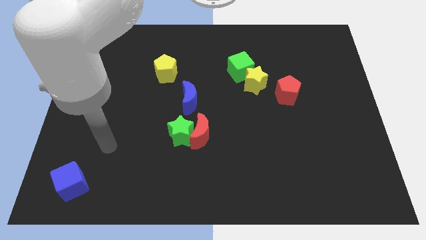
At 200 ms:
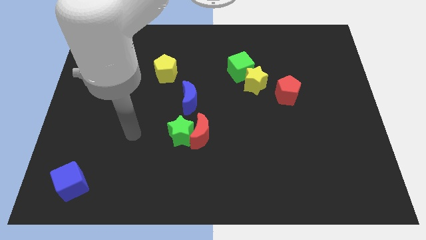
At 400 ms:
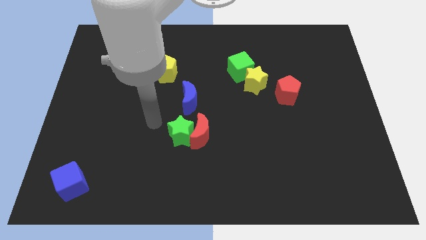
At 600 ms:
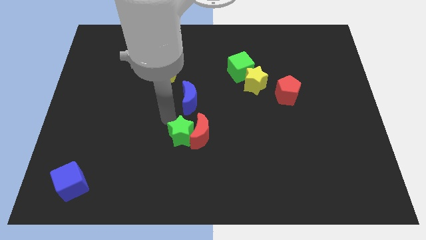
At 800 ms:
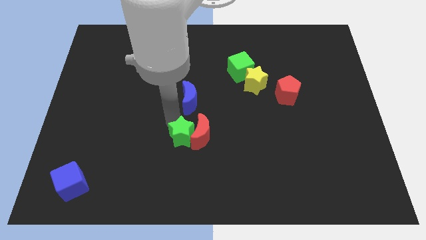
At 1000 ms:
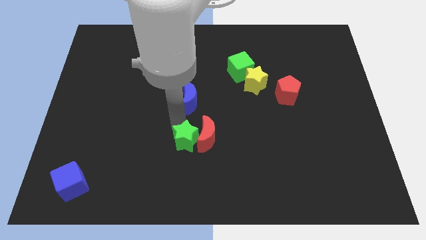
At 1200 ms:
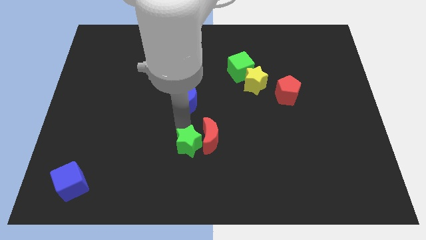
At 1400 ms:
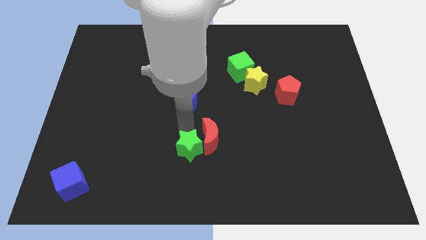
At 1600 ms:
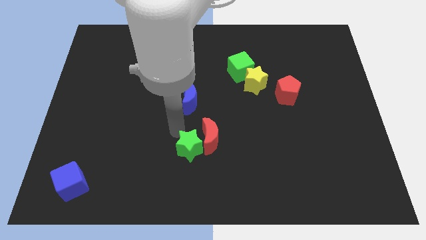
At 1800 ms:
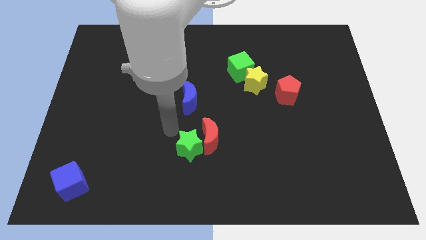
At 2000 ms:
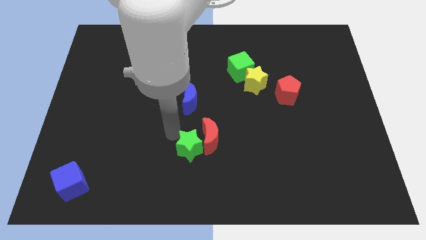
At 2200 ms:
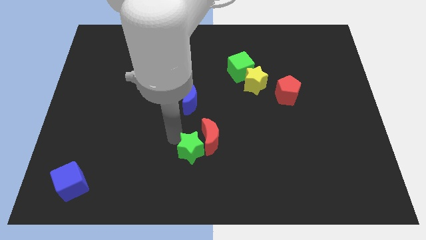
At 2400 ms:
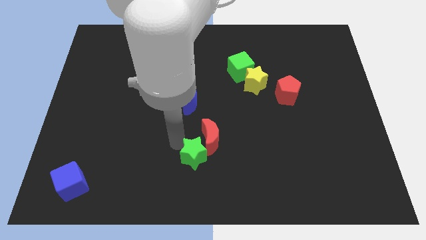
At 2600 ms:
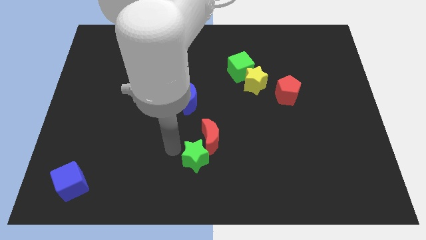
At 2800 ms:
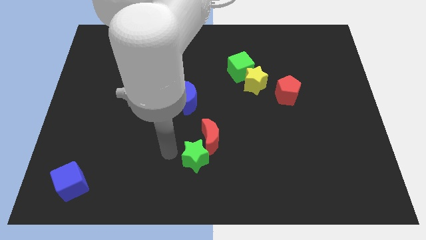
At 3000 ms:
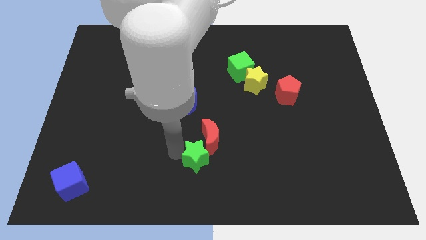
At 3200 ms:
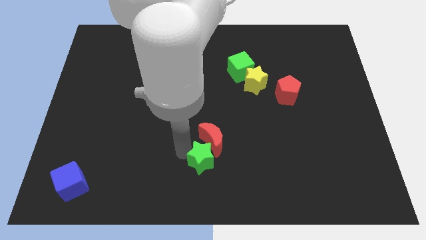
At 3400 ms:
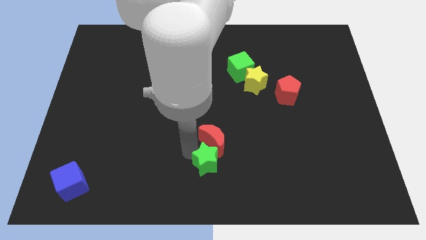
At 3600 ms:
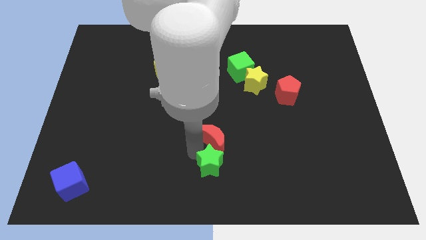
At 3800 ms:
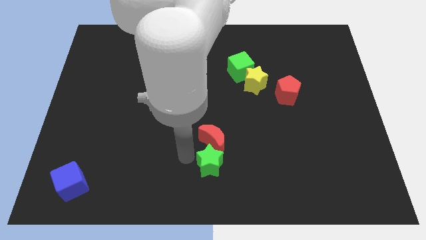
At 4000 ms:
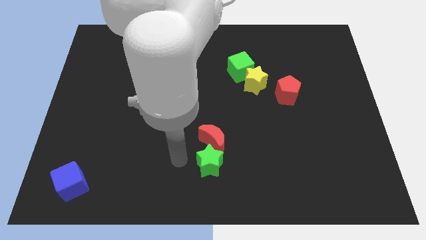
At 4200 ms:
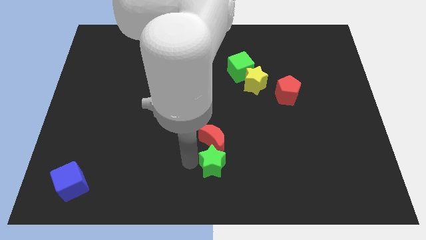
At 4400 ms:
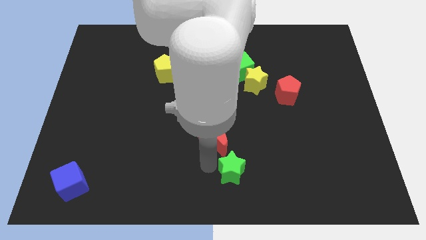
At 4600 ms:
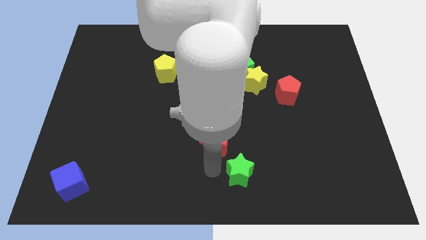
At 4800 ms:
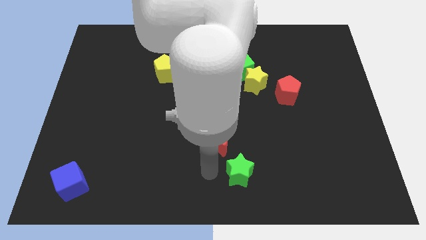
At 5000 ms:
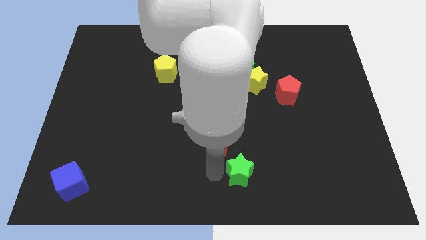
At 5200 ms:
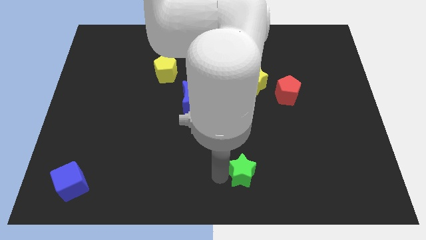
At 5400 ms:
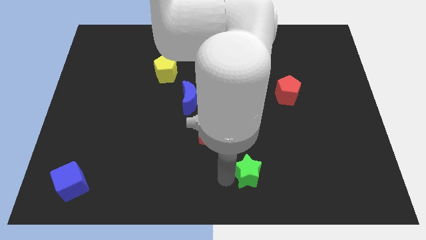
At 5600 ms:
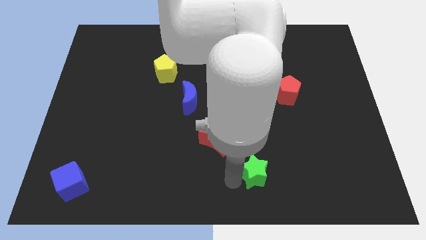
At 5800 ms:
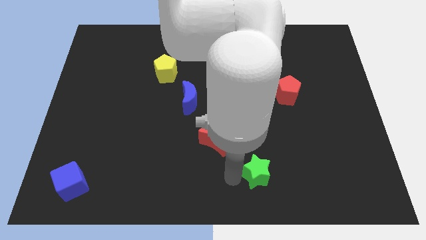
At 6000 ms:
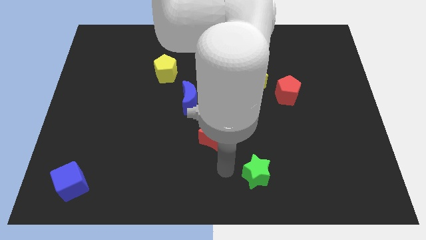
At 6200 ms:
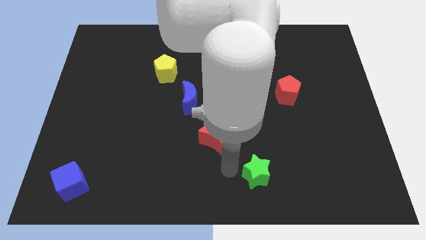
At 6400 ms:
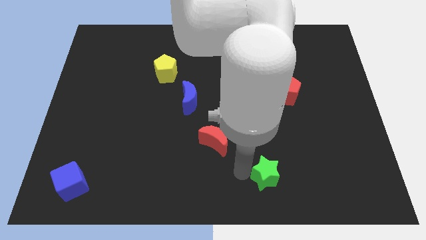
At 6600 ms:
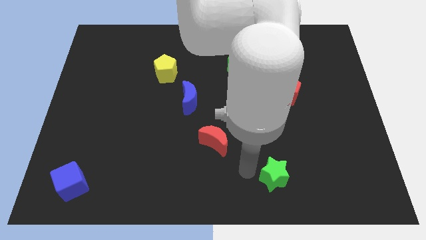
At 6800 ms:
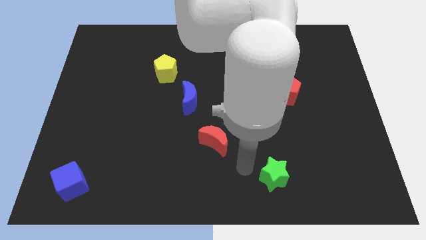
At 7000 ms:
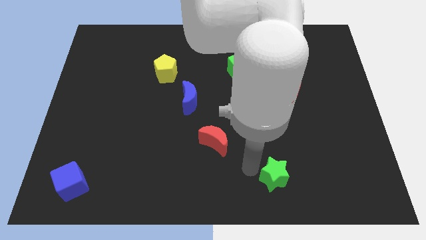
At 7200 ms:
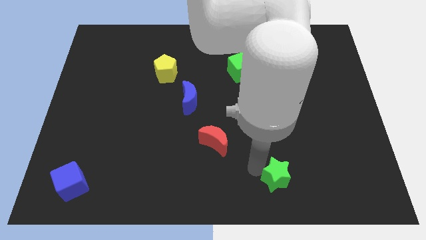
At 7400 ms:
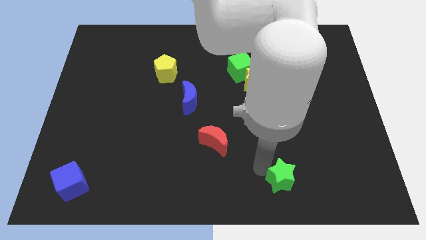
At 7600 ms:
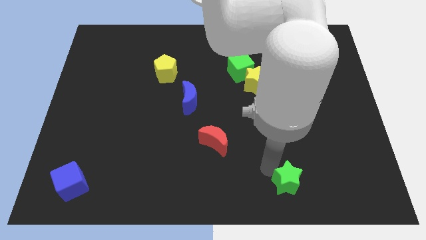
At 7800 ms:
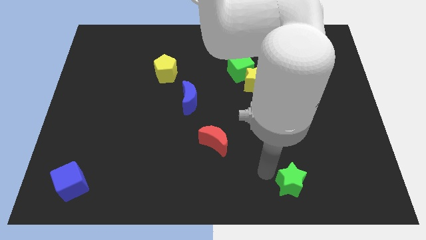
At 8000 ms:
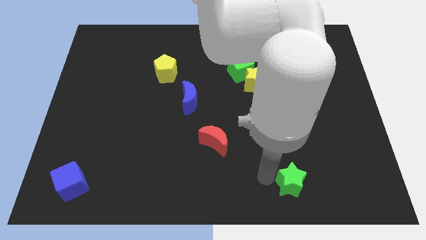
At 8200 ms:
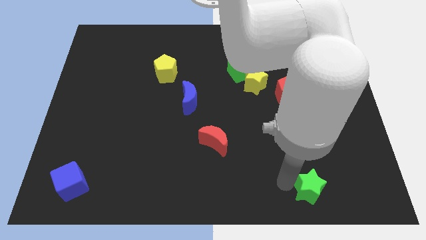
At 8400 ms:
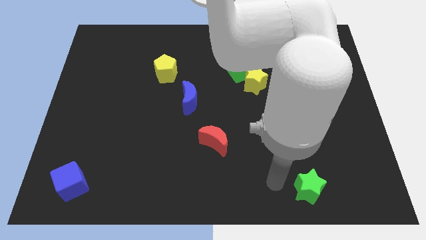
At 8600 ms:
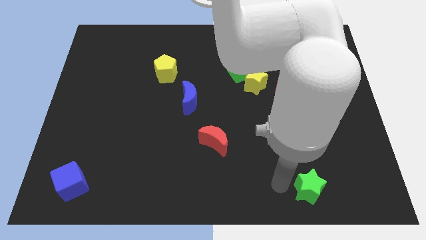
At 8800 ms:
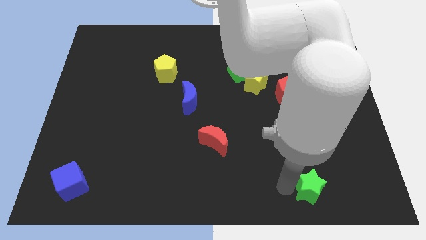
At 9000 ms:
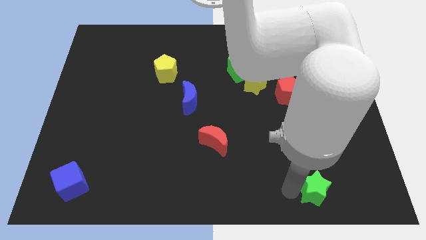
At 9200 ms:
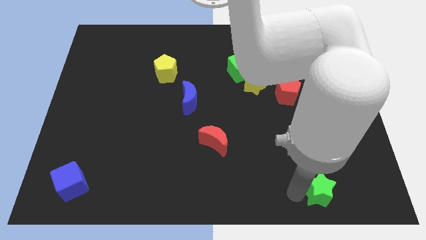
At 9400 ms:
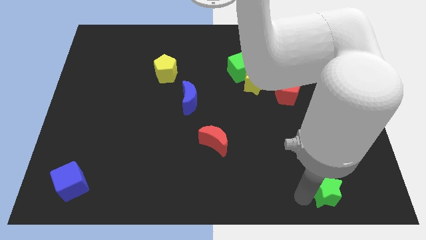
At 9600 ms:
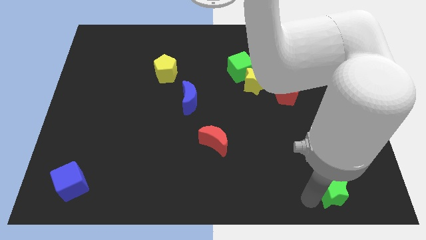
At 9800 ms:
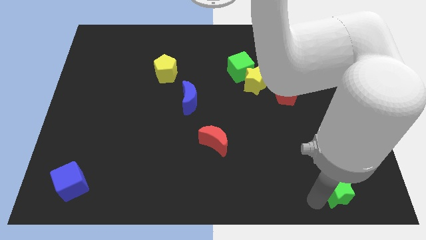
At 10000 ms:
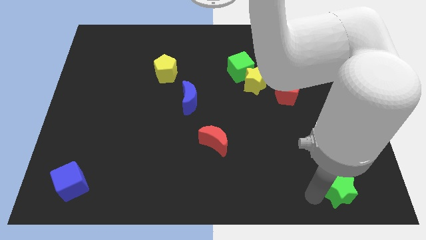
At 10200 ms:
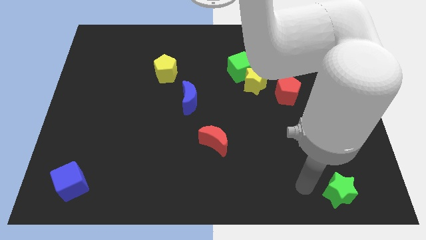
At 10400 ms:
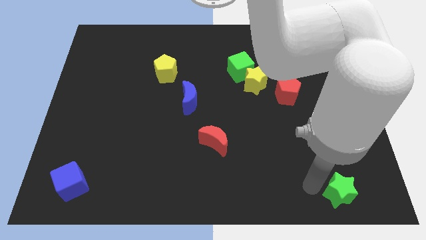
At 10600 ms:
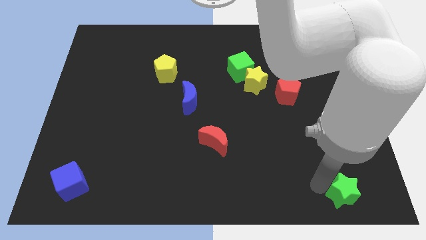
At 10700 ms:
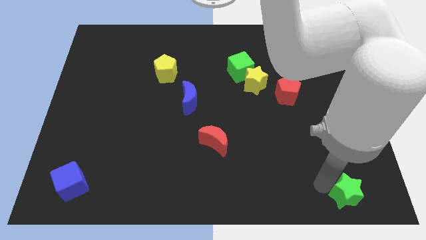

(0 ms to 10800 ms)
push the green star to the bottom right

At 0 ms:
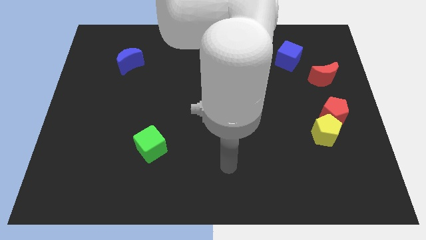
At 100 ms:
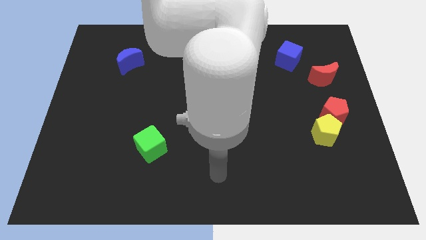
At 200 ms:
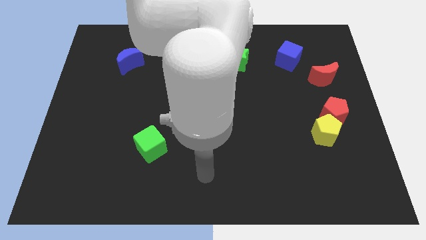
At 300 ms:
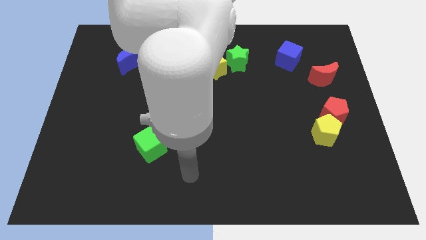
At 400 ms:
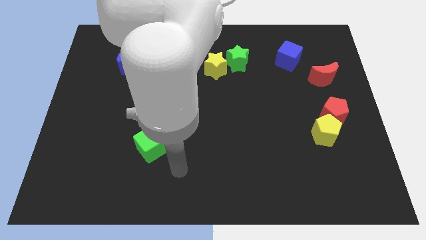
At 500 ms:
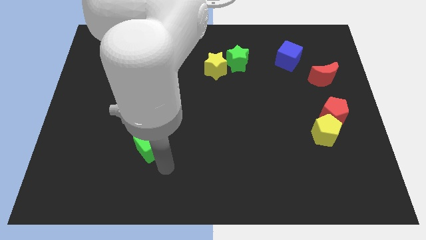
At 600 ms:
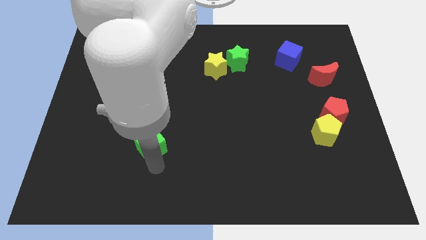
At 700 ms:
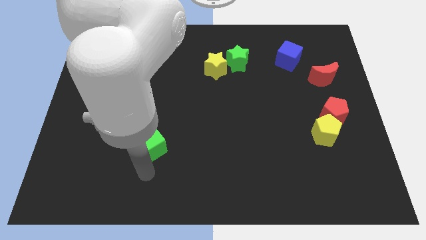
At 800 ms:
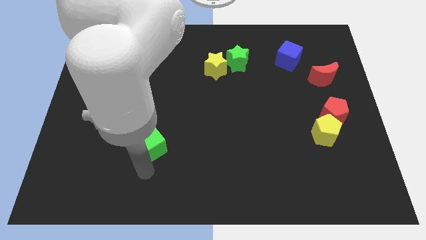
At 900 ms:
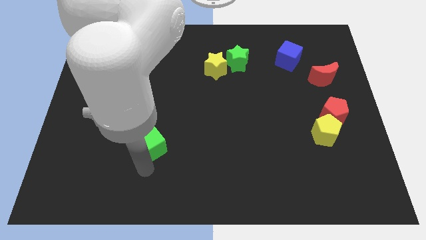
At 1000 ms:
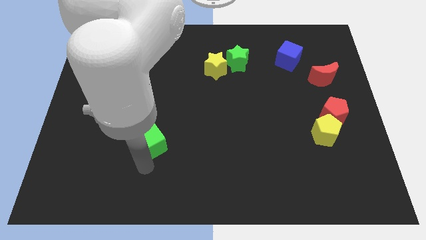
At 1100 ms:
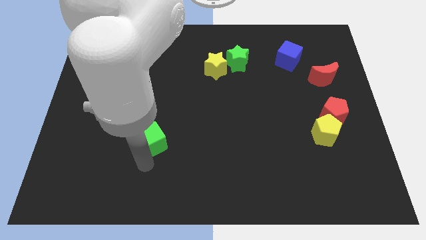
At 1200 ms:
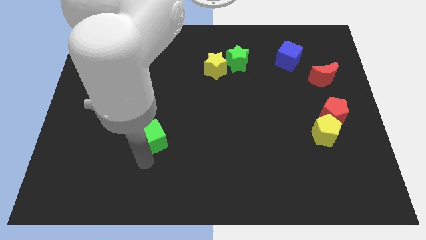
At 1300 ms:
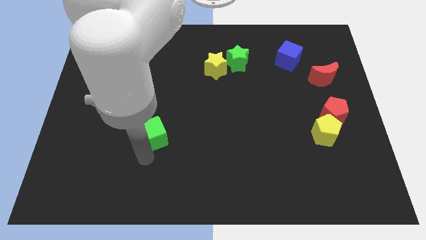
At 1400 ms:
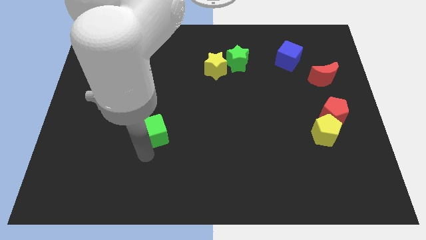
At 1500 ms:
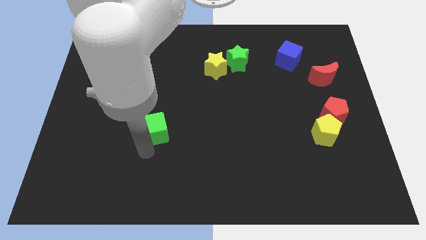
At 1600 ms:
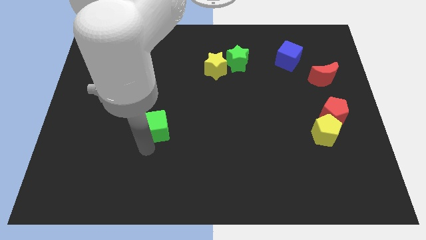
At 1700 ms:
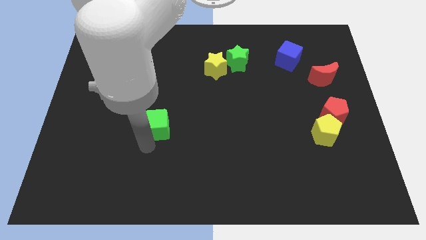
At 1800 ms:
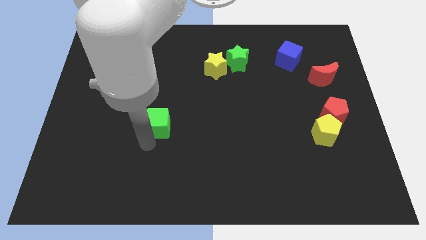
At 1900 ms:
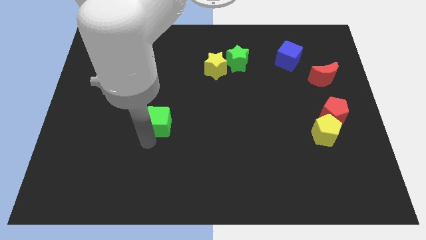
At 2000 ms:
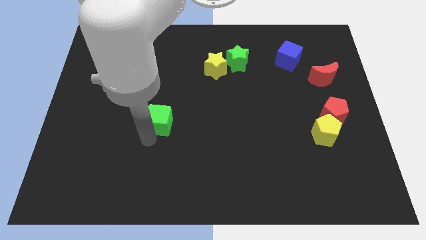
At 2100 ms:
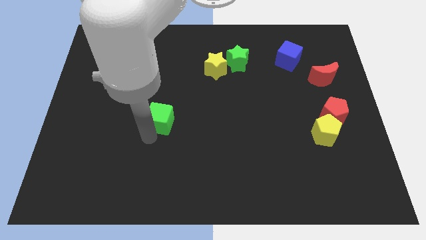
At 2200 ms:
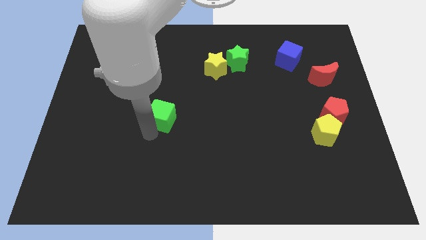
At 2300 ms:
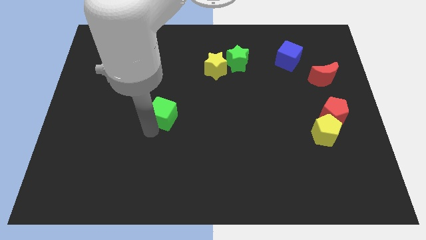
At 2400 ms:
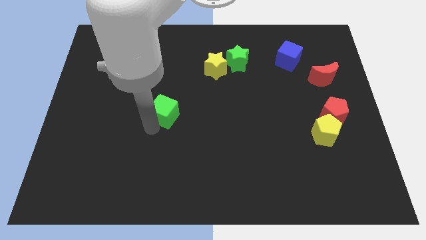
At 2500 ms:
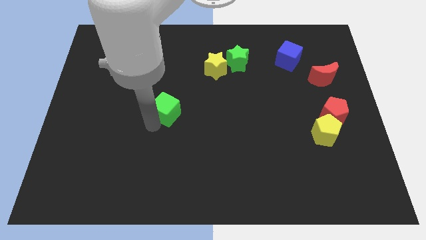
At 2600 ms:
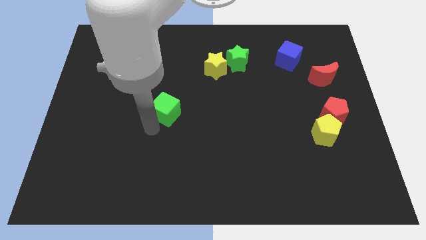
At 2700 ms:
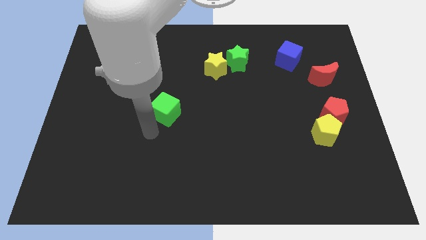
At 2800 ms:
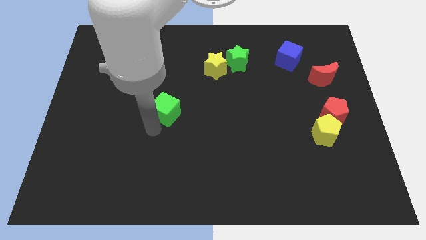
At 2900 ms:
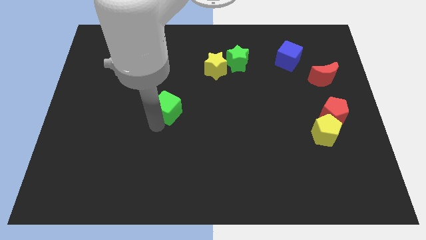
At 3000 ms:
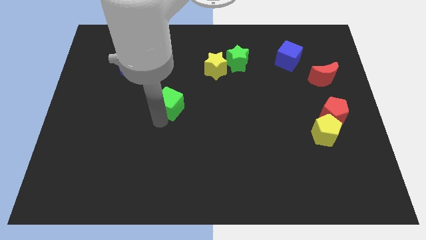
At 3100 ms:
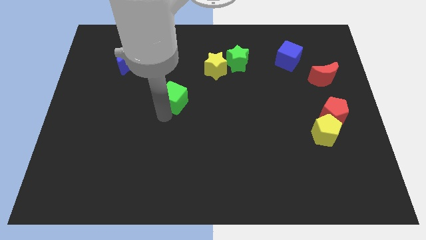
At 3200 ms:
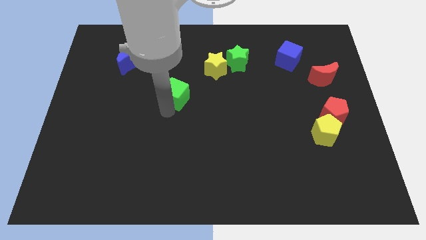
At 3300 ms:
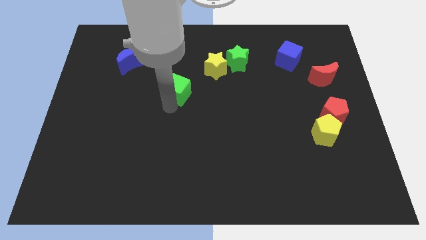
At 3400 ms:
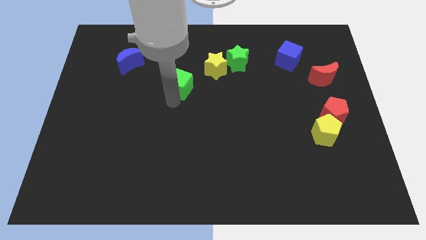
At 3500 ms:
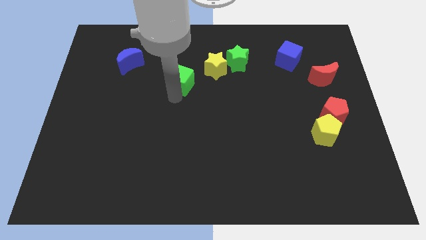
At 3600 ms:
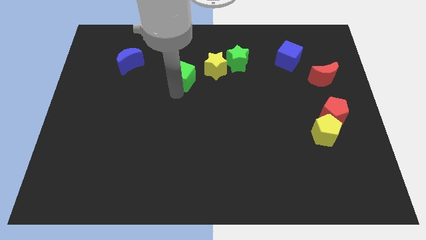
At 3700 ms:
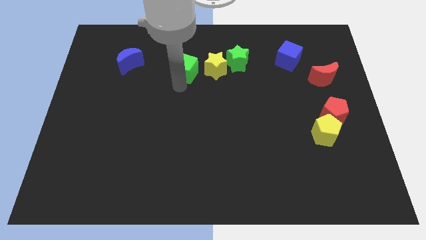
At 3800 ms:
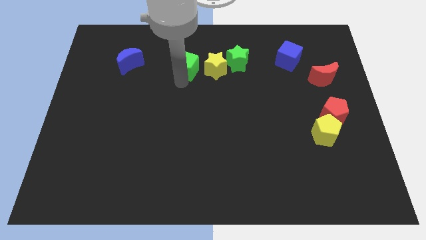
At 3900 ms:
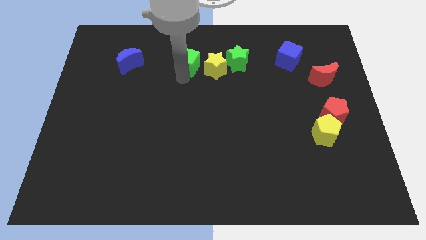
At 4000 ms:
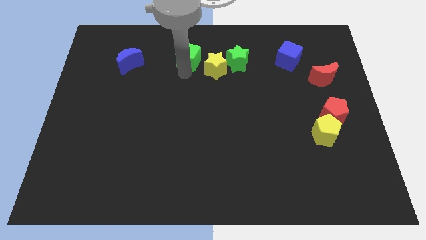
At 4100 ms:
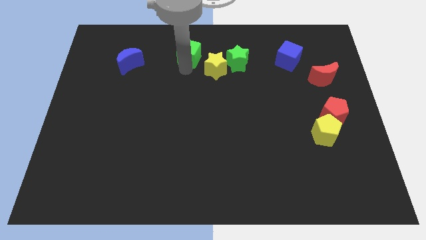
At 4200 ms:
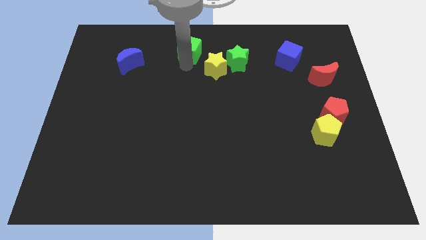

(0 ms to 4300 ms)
put the green cube to the top
